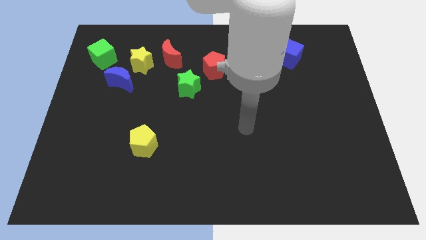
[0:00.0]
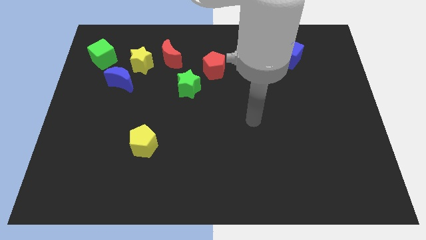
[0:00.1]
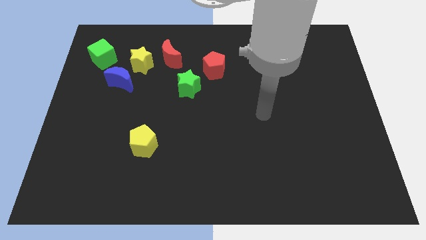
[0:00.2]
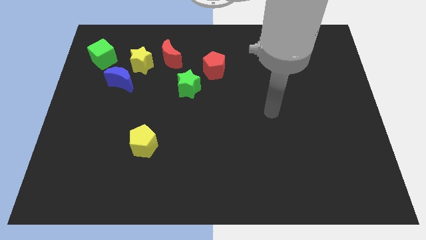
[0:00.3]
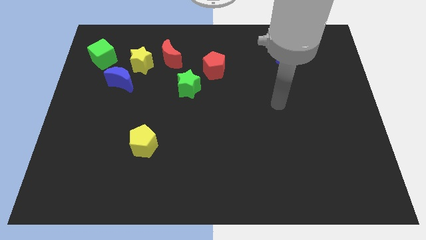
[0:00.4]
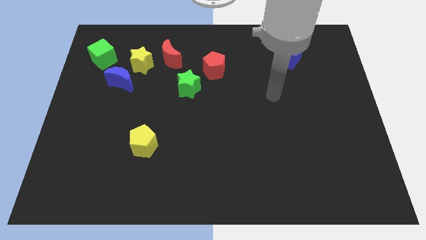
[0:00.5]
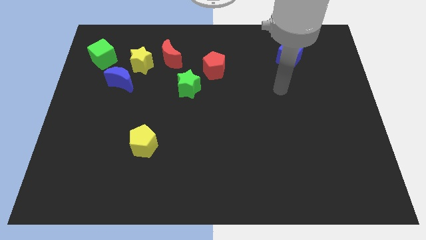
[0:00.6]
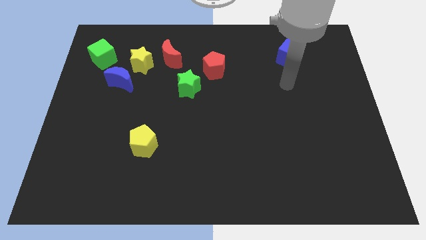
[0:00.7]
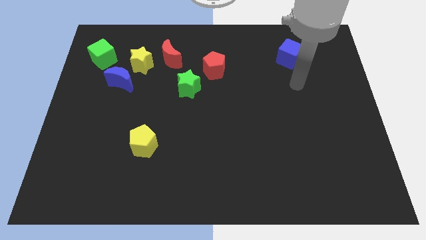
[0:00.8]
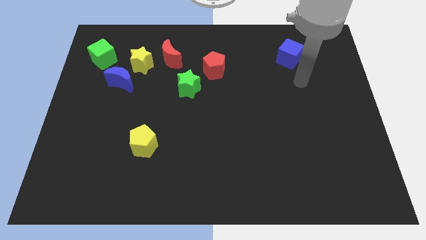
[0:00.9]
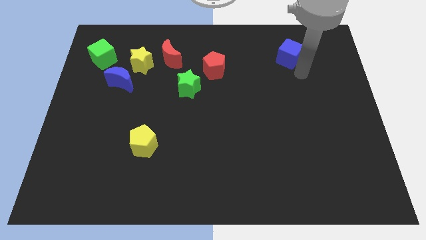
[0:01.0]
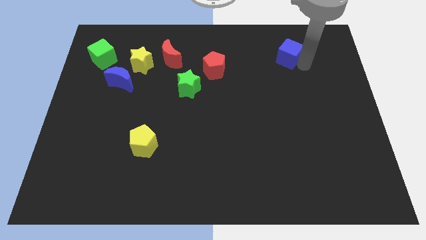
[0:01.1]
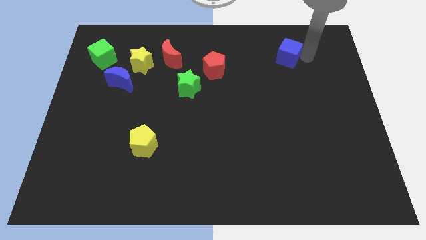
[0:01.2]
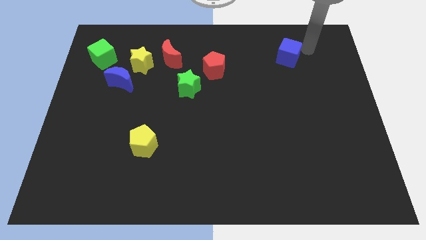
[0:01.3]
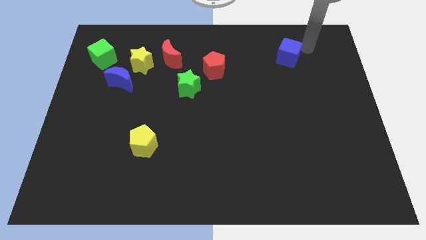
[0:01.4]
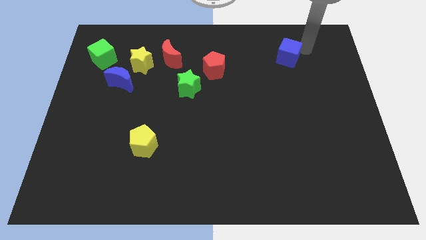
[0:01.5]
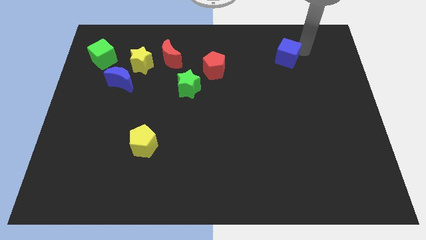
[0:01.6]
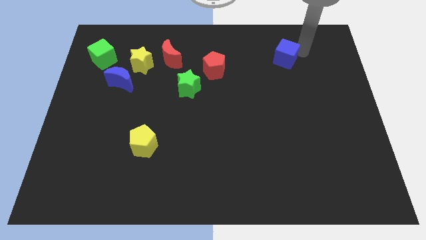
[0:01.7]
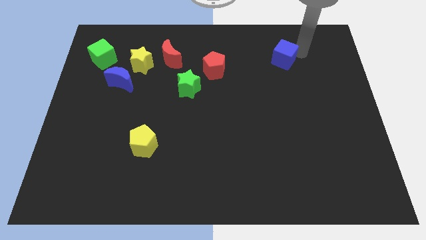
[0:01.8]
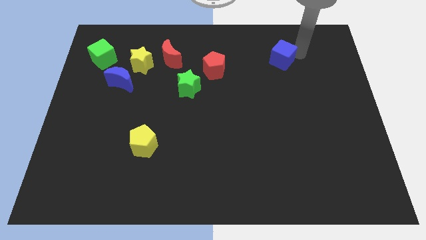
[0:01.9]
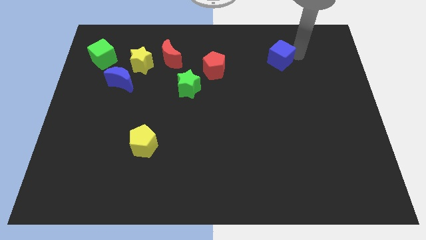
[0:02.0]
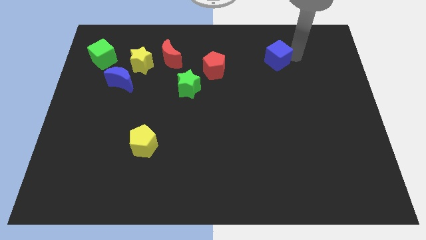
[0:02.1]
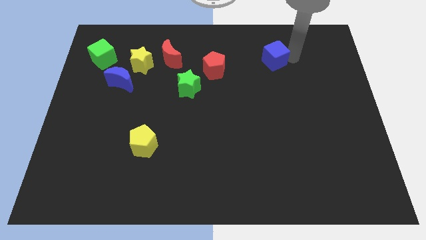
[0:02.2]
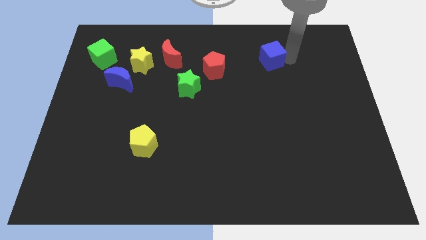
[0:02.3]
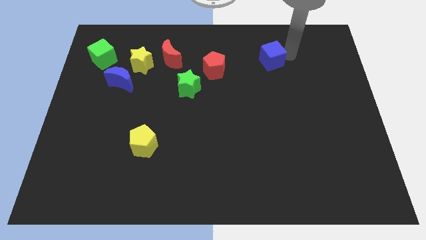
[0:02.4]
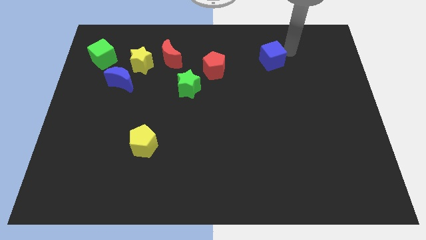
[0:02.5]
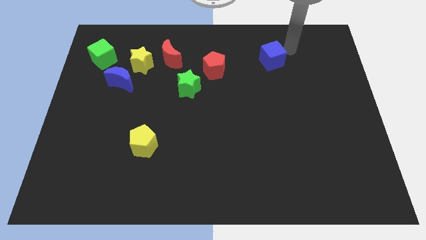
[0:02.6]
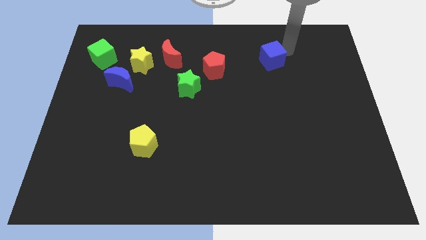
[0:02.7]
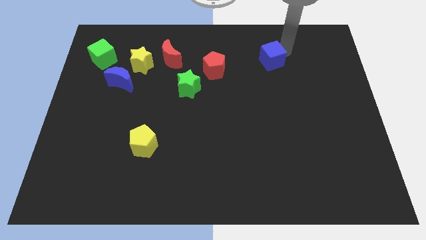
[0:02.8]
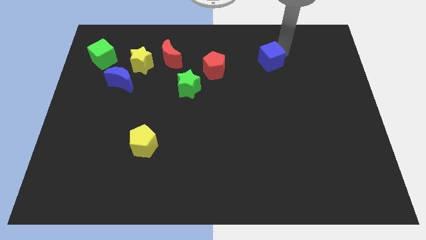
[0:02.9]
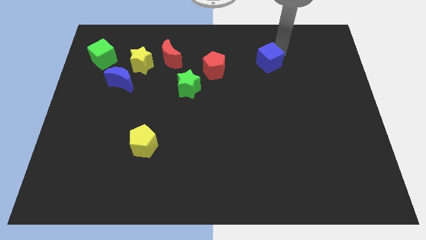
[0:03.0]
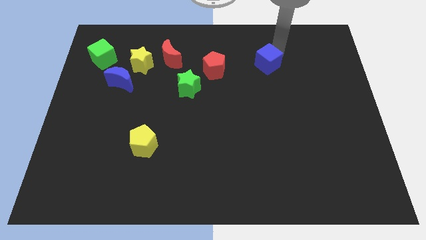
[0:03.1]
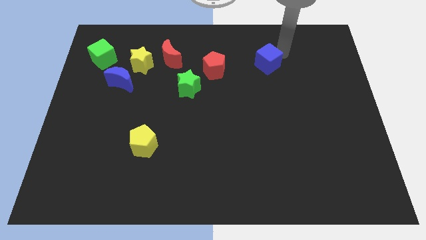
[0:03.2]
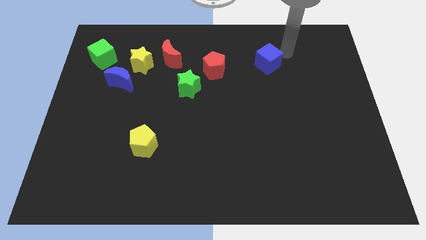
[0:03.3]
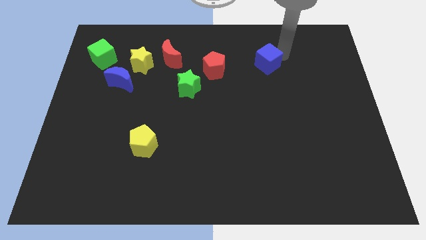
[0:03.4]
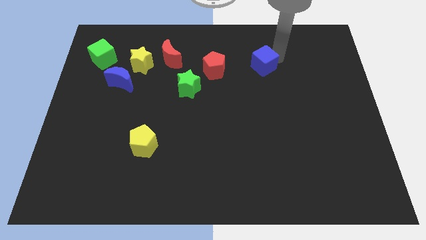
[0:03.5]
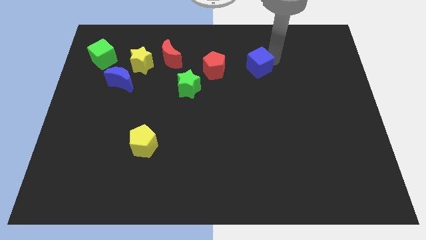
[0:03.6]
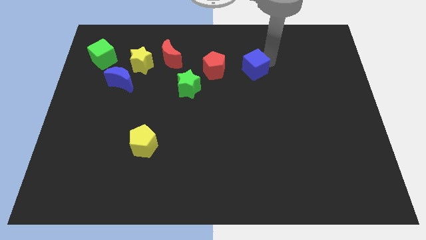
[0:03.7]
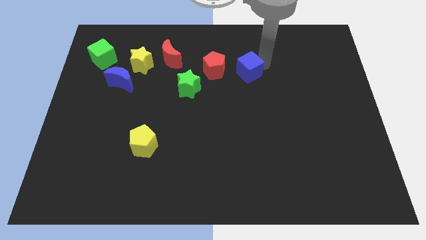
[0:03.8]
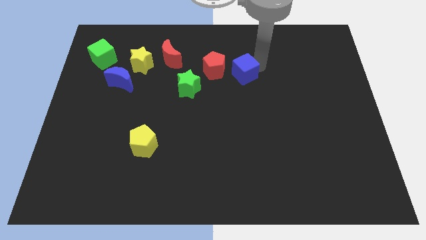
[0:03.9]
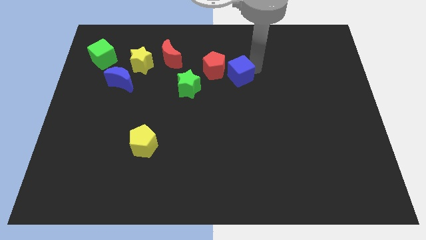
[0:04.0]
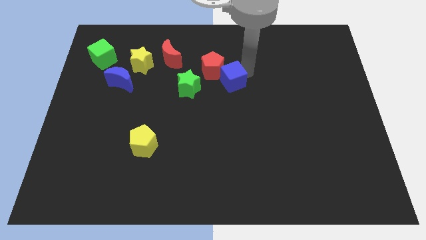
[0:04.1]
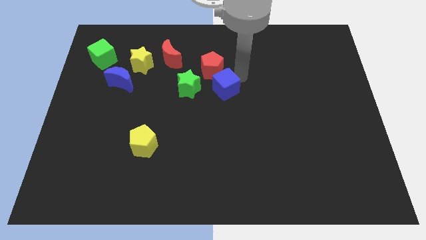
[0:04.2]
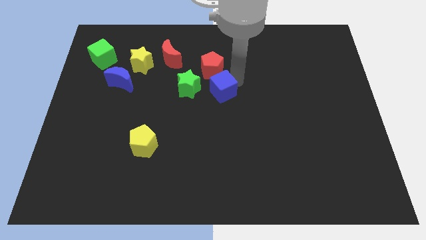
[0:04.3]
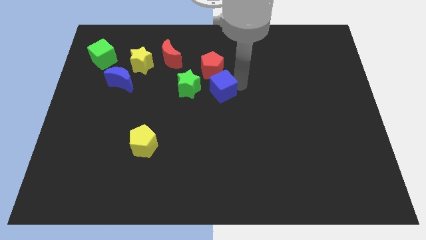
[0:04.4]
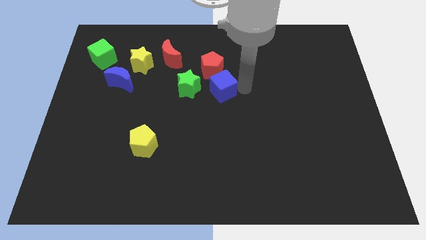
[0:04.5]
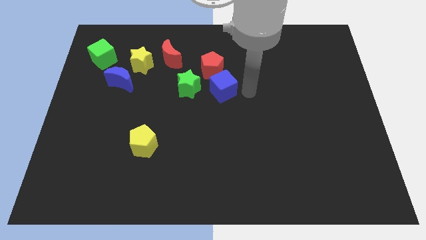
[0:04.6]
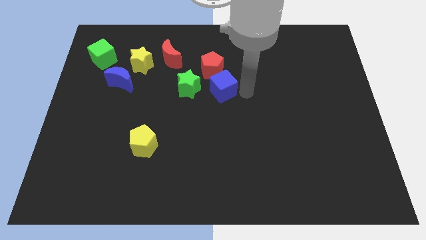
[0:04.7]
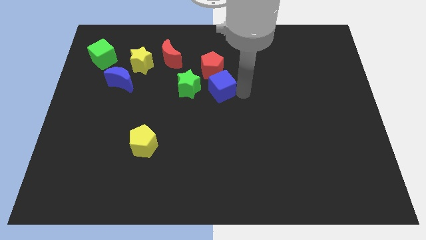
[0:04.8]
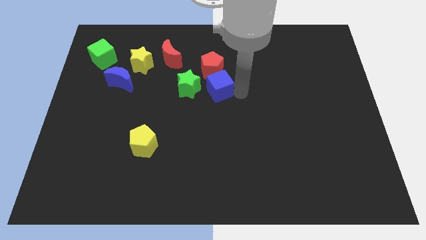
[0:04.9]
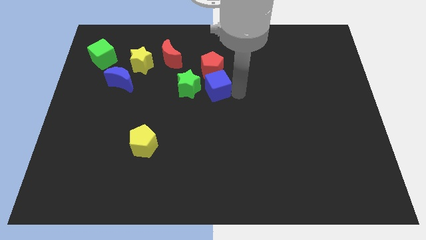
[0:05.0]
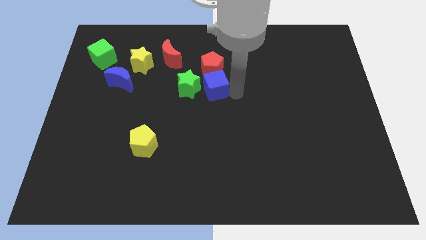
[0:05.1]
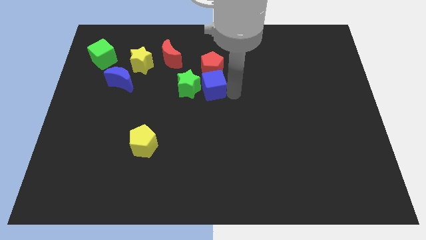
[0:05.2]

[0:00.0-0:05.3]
slide the blue cube close to the green star

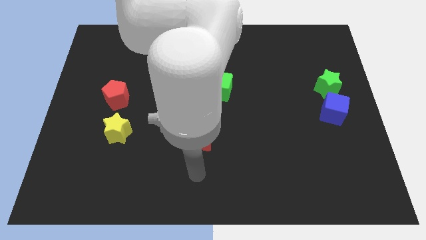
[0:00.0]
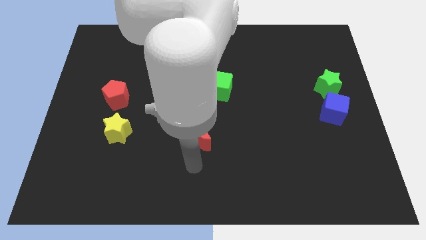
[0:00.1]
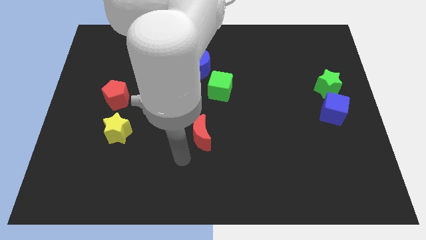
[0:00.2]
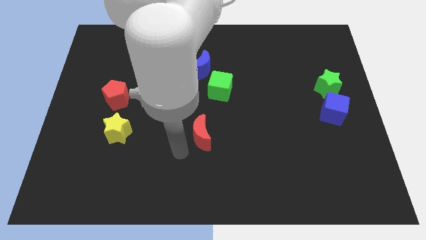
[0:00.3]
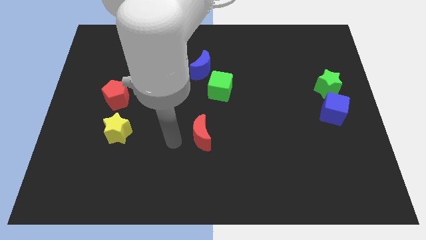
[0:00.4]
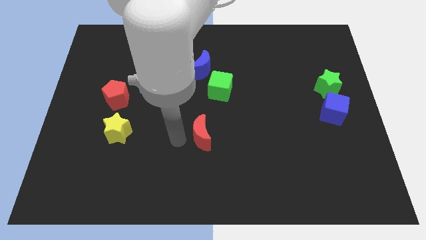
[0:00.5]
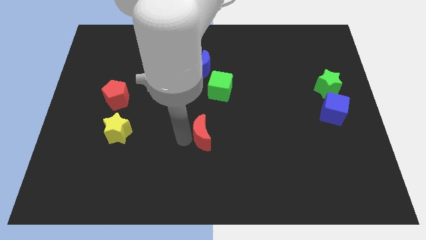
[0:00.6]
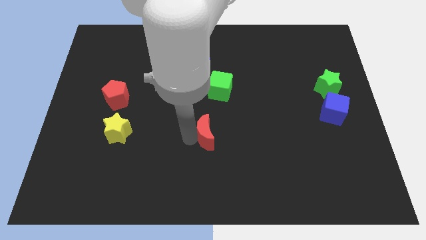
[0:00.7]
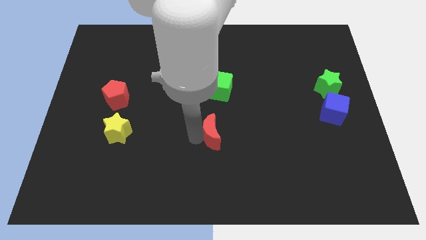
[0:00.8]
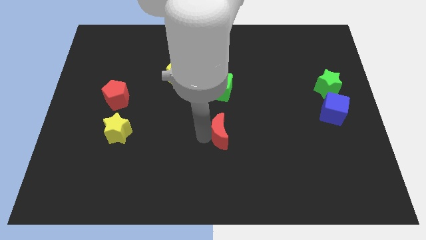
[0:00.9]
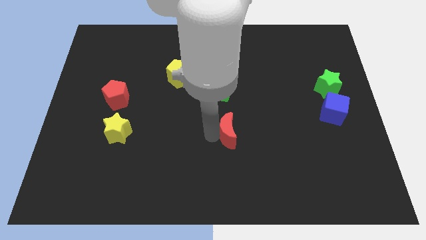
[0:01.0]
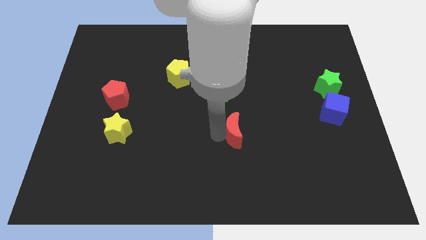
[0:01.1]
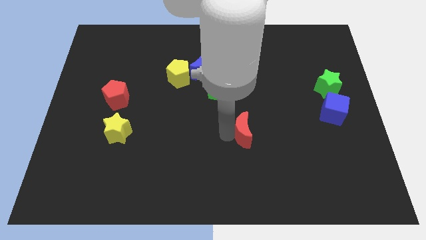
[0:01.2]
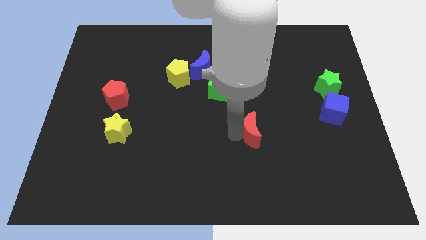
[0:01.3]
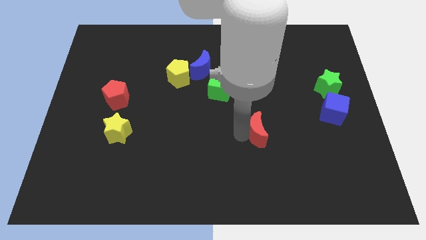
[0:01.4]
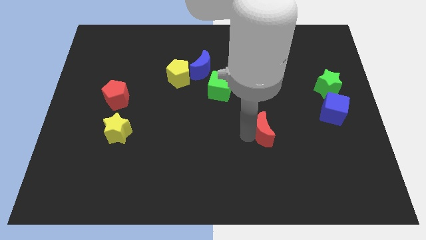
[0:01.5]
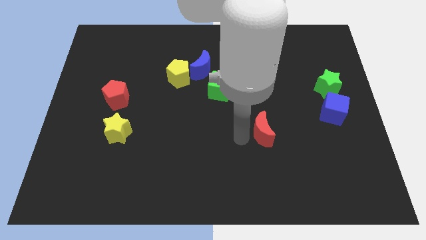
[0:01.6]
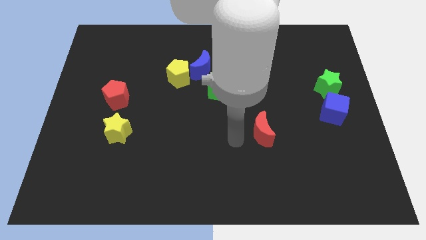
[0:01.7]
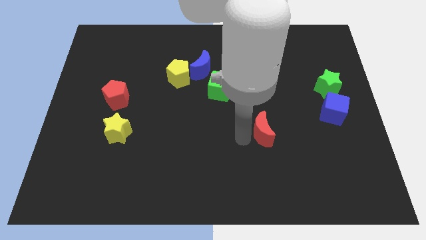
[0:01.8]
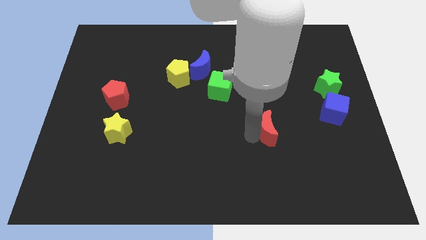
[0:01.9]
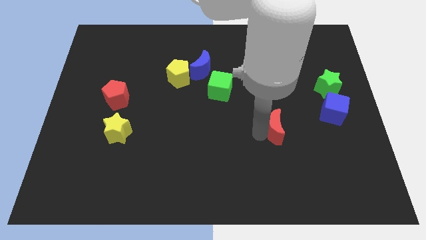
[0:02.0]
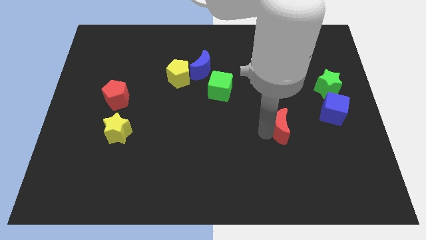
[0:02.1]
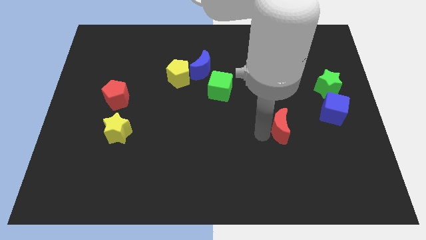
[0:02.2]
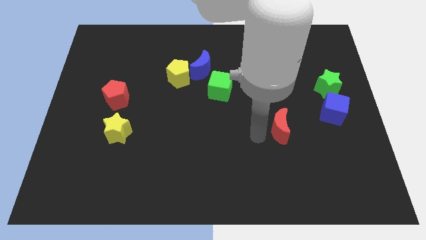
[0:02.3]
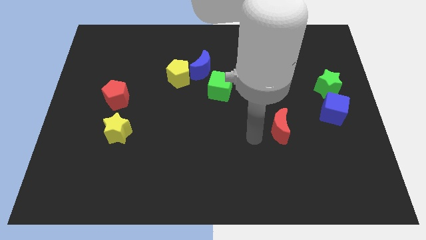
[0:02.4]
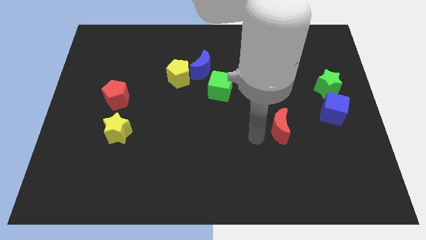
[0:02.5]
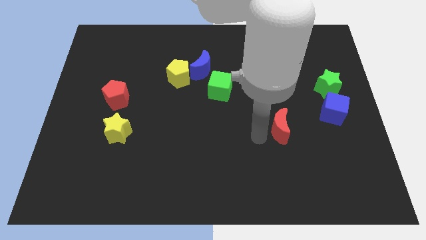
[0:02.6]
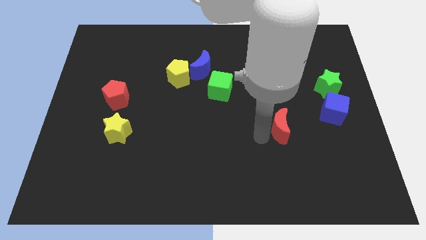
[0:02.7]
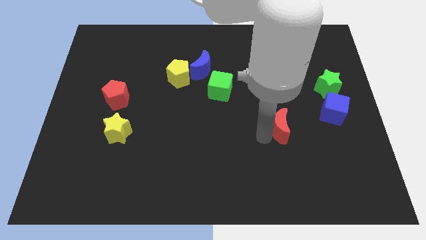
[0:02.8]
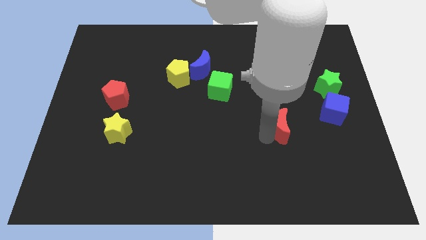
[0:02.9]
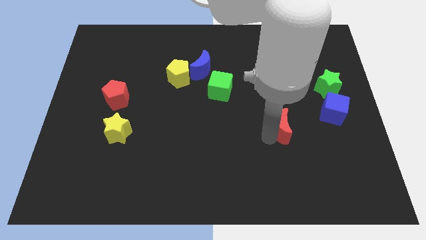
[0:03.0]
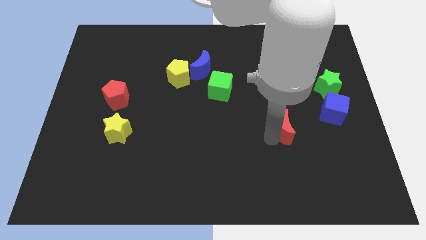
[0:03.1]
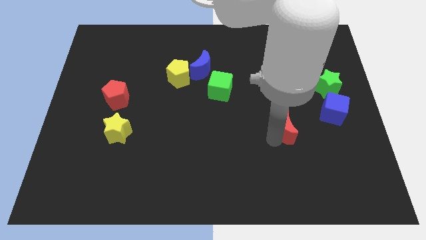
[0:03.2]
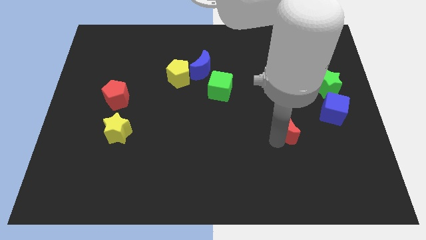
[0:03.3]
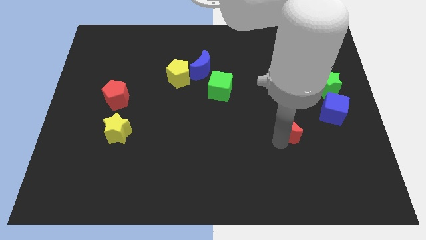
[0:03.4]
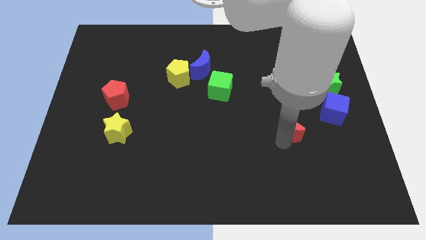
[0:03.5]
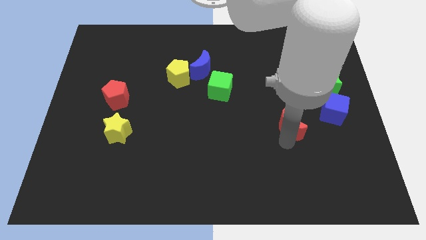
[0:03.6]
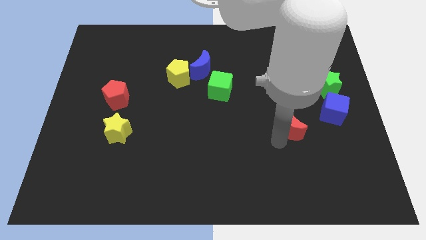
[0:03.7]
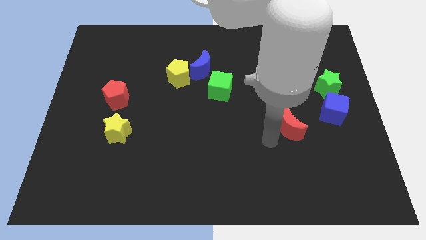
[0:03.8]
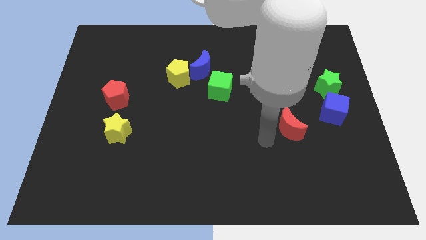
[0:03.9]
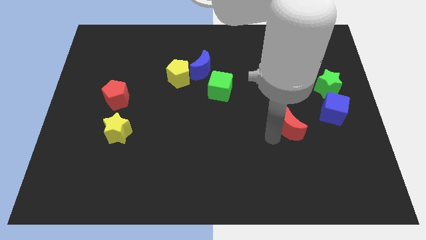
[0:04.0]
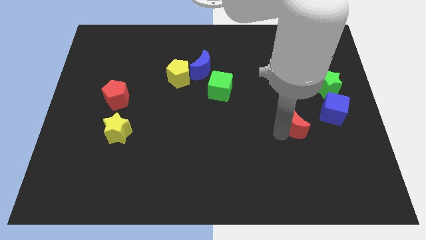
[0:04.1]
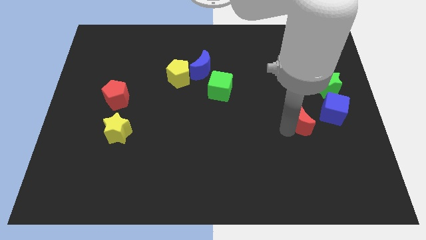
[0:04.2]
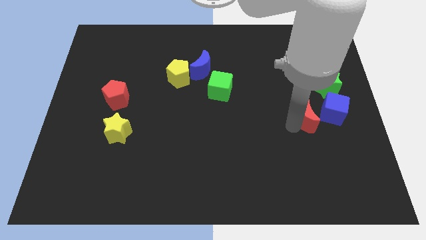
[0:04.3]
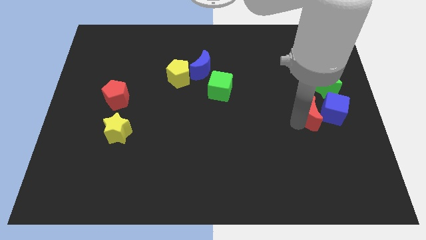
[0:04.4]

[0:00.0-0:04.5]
move the red moon close to the blue cube
